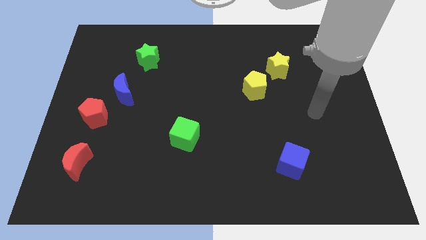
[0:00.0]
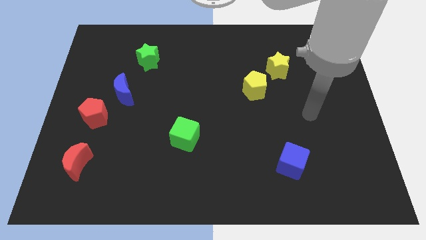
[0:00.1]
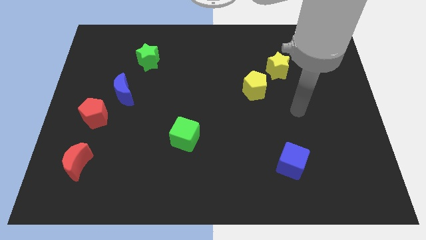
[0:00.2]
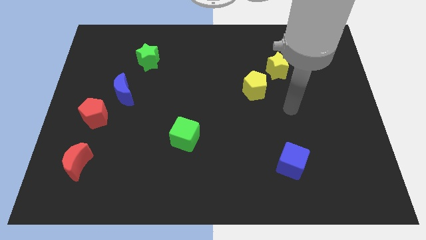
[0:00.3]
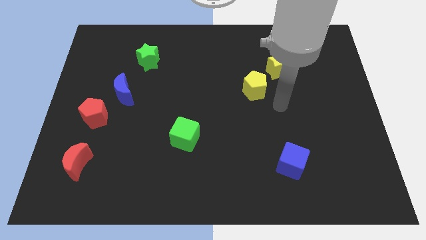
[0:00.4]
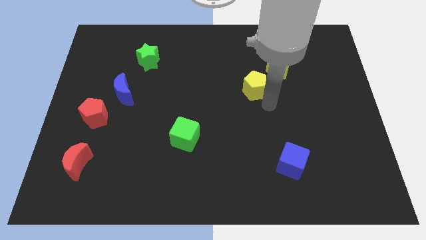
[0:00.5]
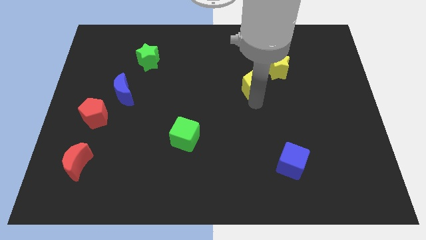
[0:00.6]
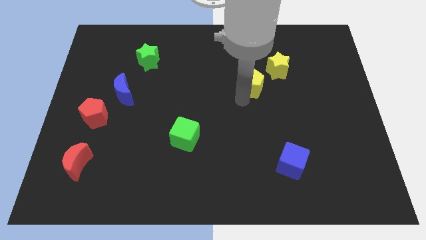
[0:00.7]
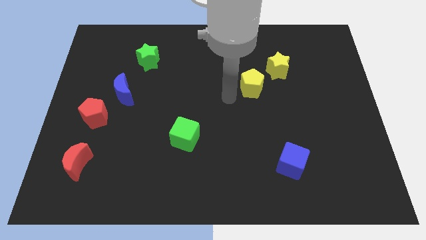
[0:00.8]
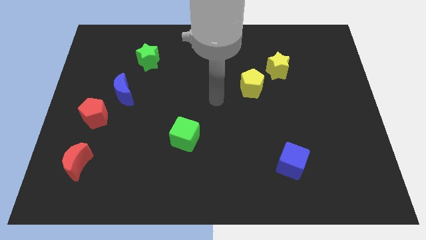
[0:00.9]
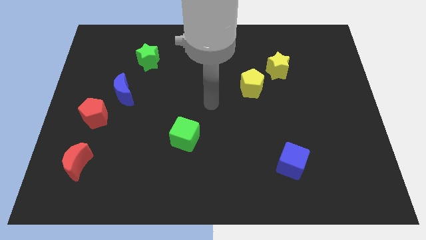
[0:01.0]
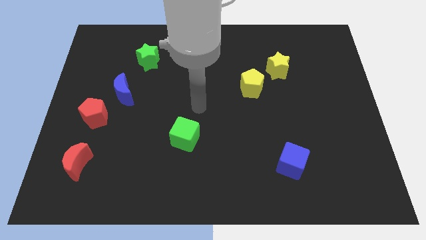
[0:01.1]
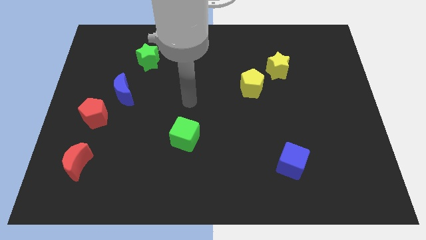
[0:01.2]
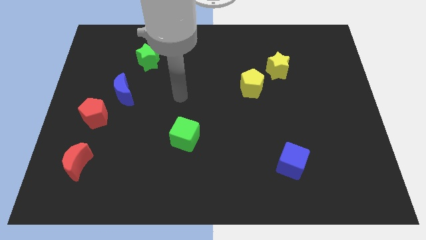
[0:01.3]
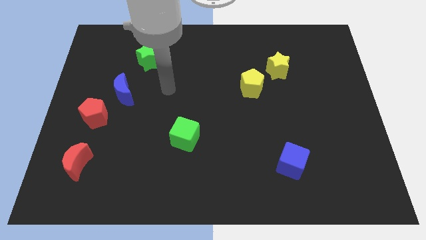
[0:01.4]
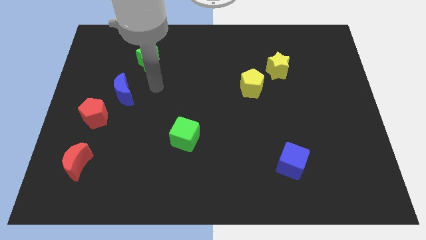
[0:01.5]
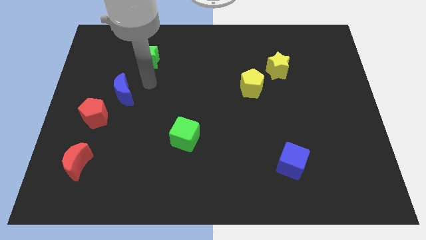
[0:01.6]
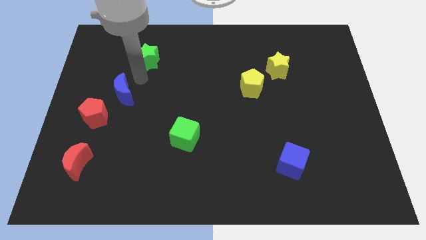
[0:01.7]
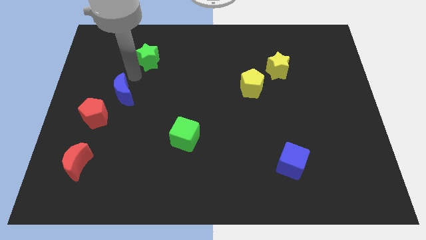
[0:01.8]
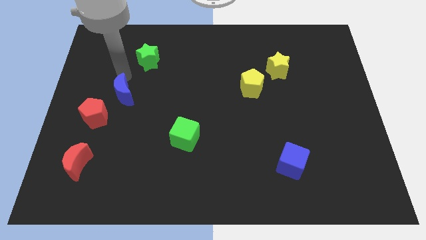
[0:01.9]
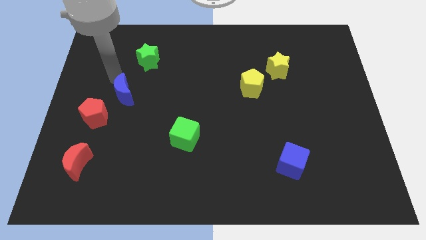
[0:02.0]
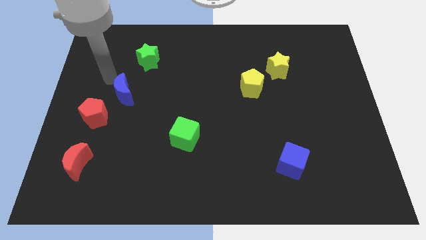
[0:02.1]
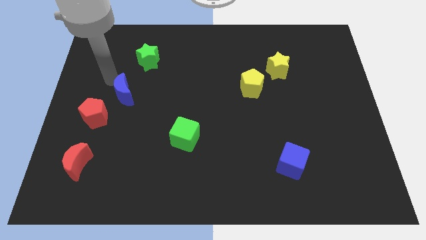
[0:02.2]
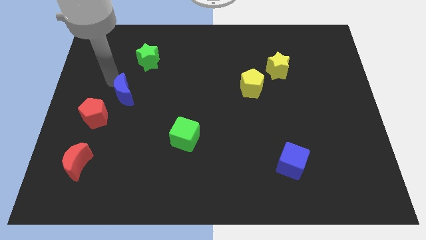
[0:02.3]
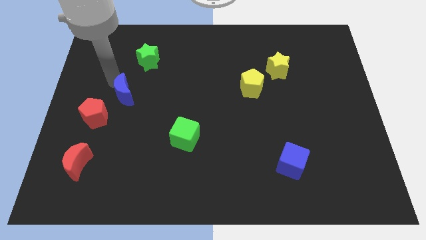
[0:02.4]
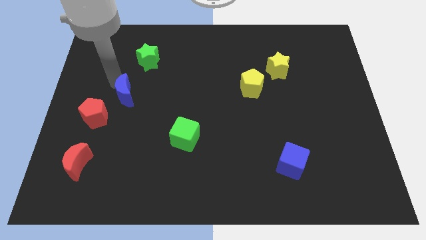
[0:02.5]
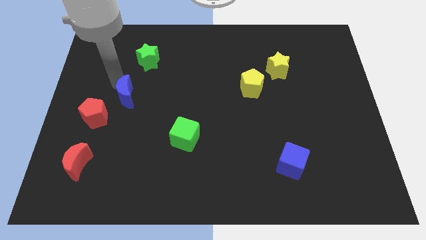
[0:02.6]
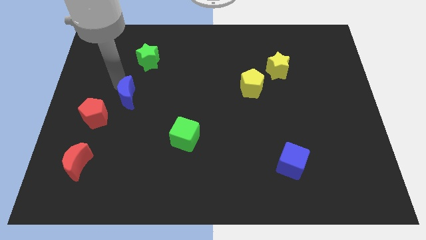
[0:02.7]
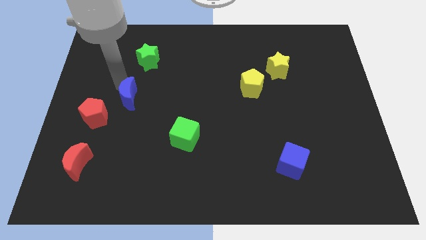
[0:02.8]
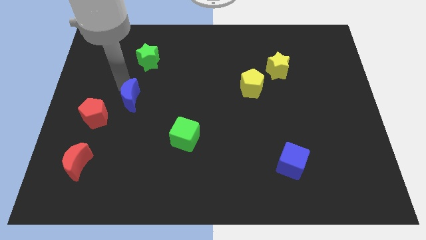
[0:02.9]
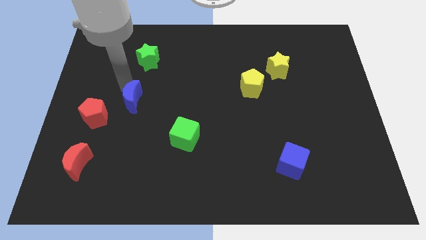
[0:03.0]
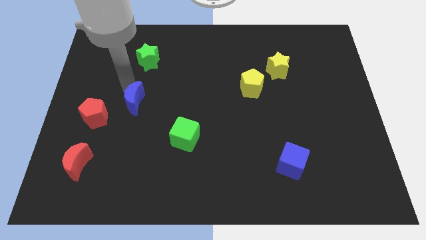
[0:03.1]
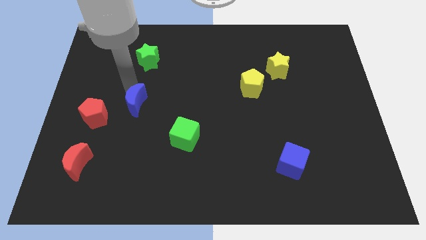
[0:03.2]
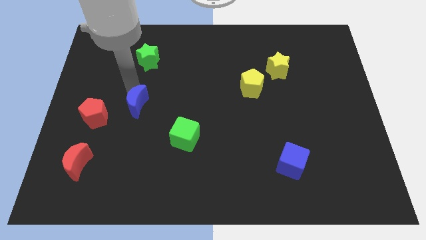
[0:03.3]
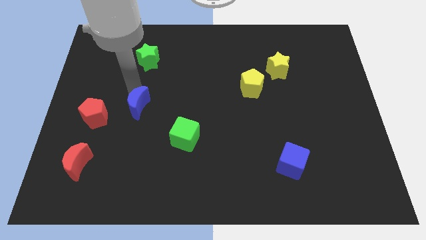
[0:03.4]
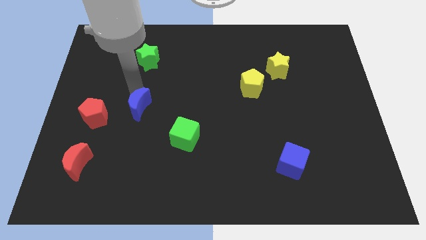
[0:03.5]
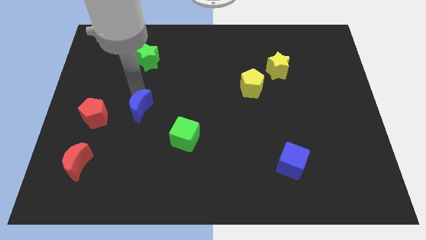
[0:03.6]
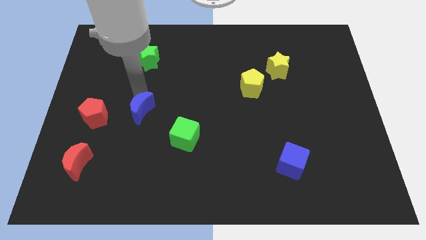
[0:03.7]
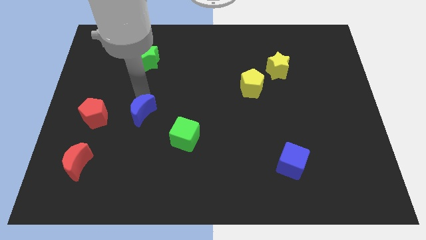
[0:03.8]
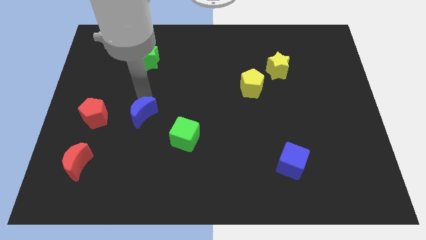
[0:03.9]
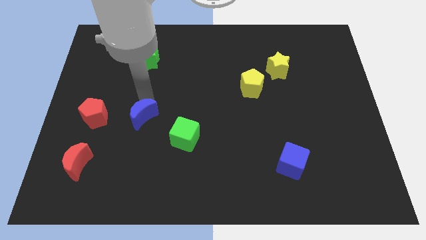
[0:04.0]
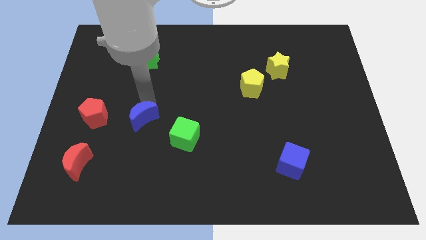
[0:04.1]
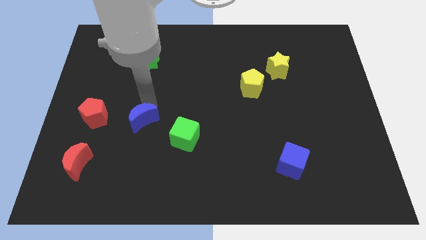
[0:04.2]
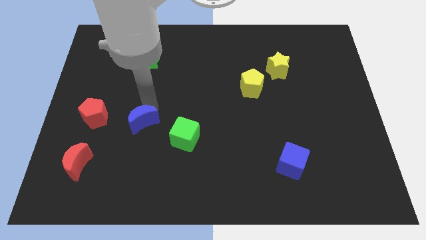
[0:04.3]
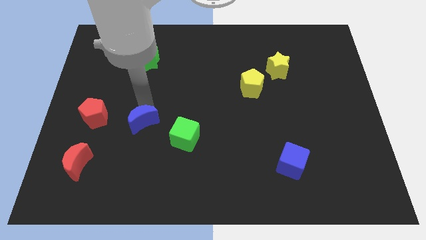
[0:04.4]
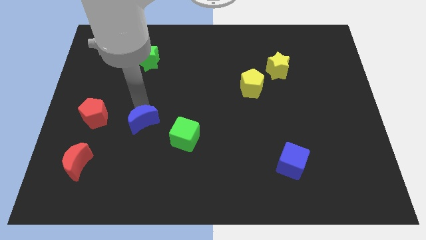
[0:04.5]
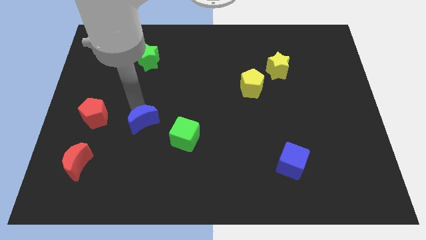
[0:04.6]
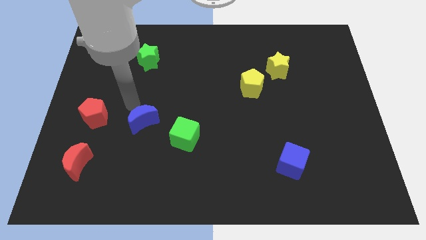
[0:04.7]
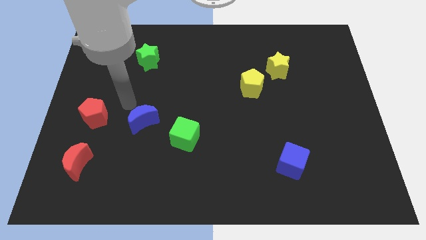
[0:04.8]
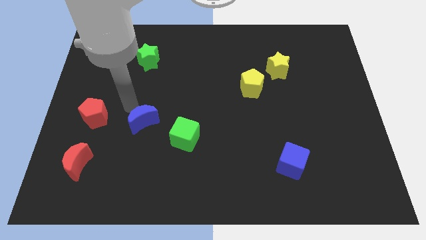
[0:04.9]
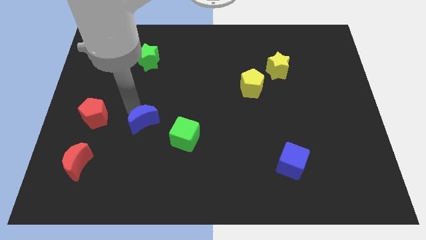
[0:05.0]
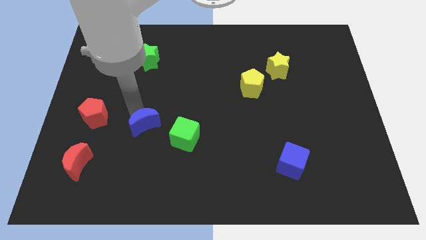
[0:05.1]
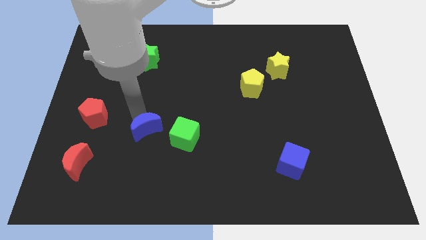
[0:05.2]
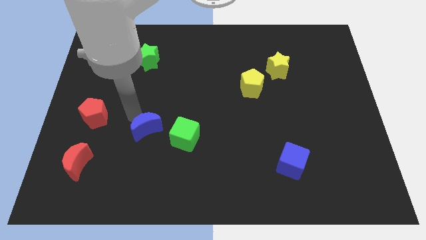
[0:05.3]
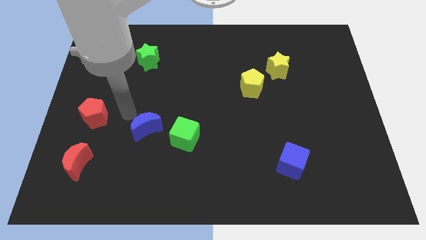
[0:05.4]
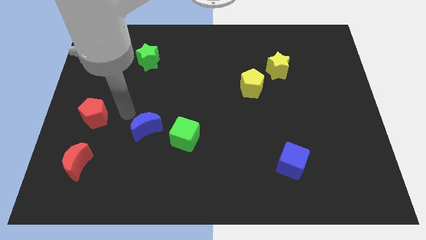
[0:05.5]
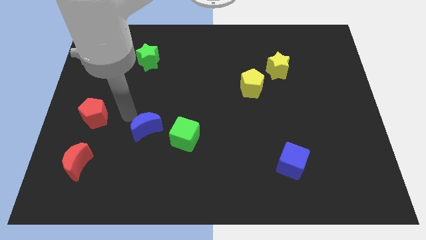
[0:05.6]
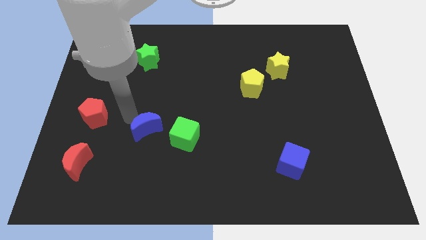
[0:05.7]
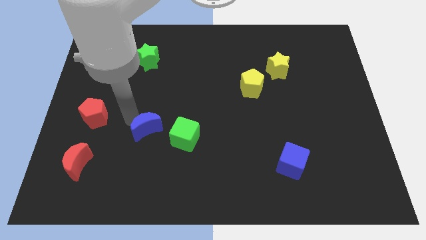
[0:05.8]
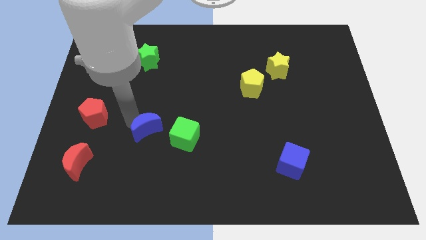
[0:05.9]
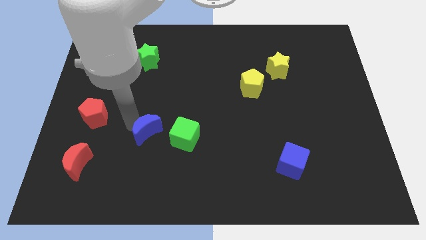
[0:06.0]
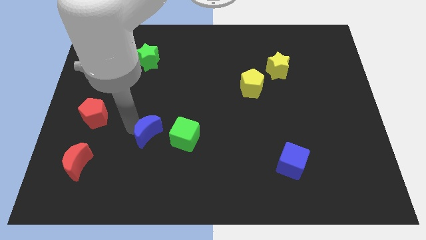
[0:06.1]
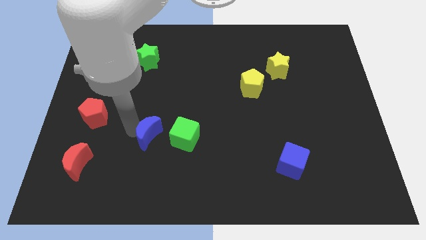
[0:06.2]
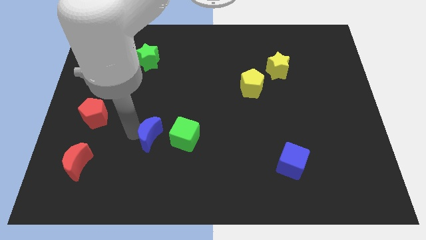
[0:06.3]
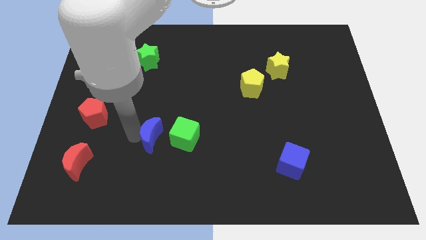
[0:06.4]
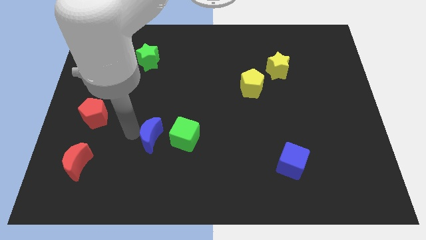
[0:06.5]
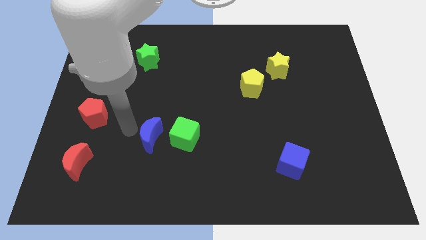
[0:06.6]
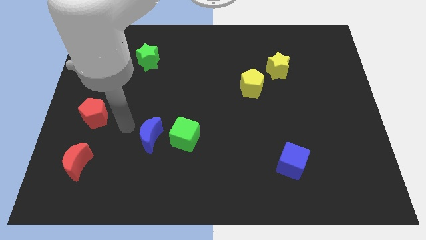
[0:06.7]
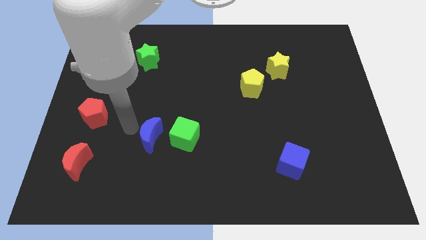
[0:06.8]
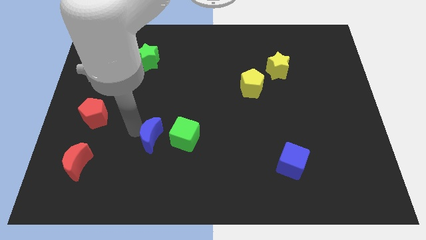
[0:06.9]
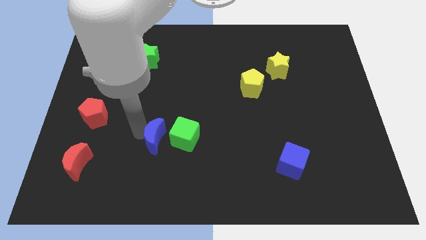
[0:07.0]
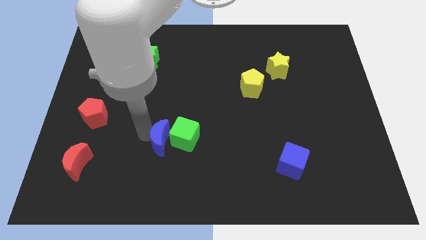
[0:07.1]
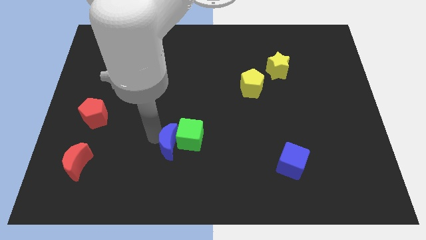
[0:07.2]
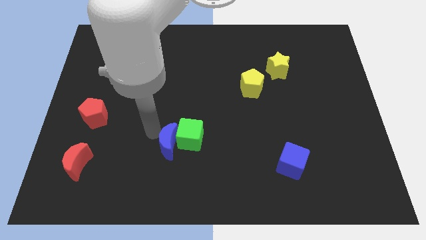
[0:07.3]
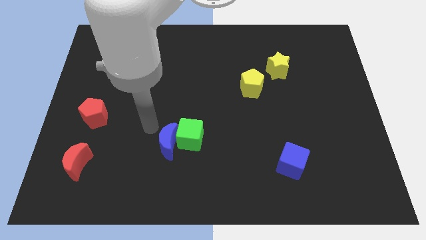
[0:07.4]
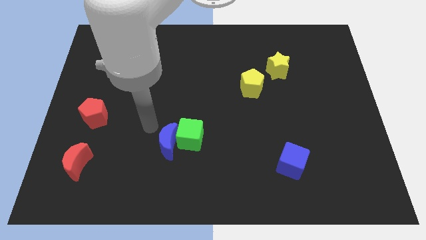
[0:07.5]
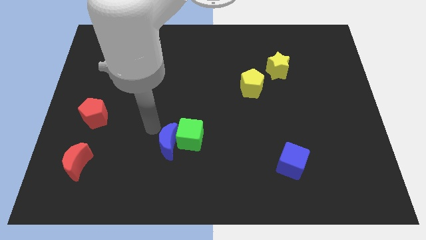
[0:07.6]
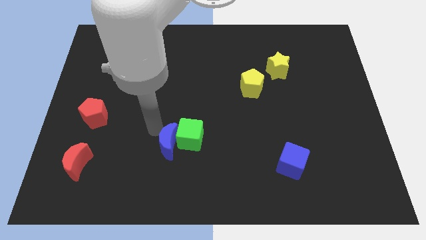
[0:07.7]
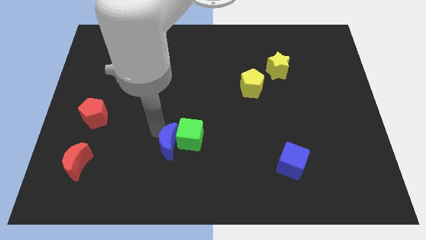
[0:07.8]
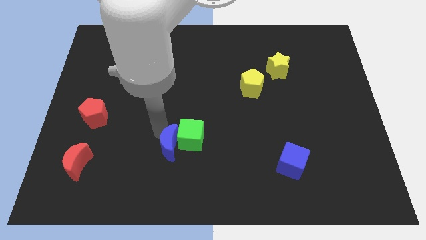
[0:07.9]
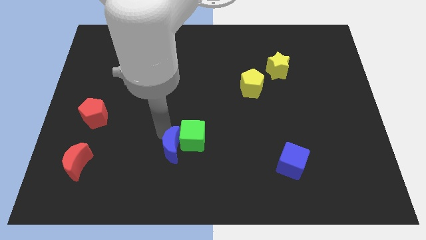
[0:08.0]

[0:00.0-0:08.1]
push the blue moon downwards and right diagonally
